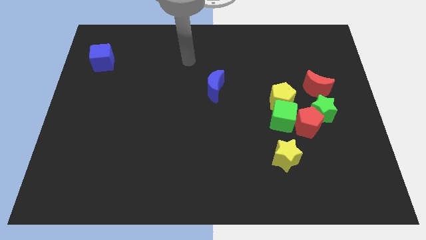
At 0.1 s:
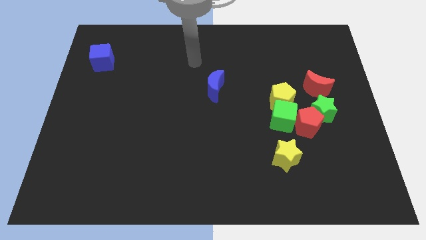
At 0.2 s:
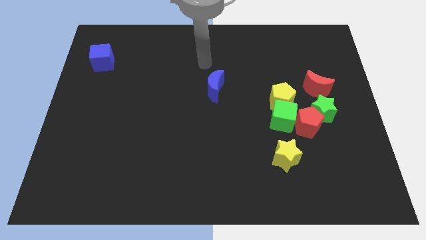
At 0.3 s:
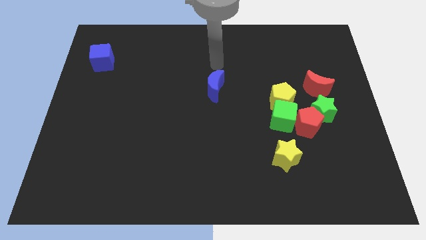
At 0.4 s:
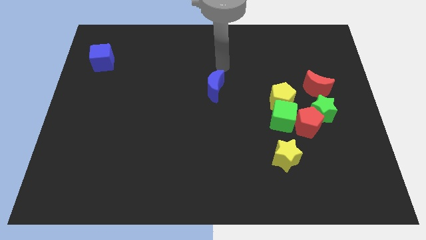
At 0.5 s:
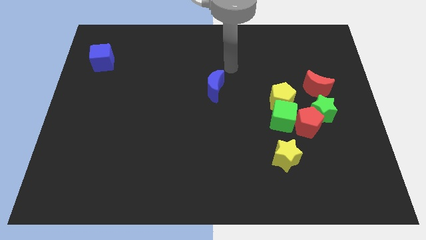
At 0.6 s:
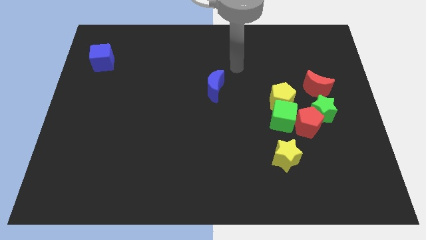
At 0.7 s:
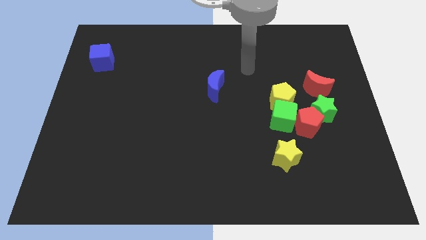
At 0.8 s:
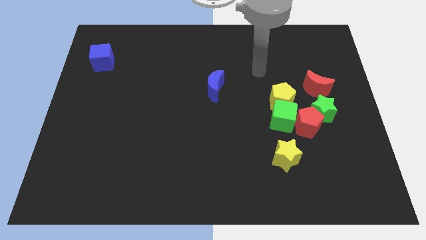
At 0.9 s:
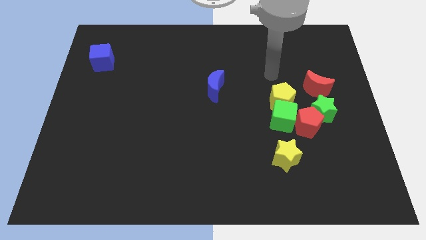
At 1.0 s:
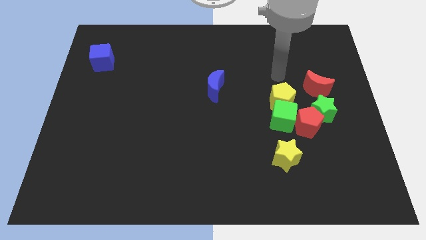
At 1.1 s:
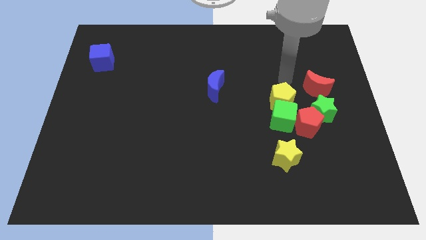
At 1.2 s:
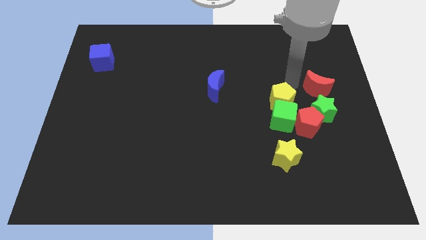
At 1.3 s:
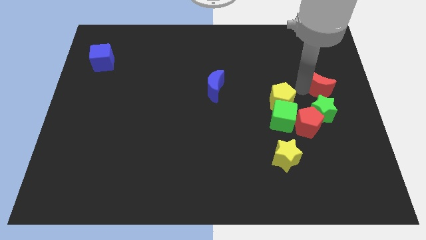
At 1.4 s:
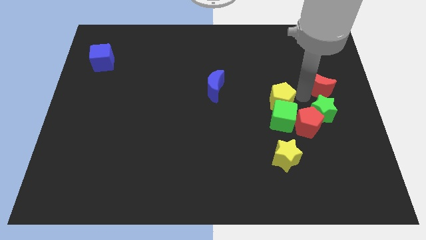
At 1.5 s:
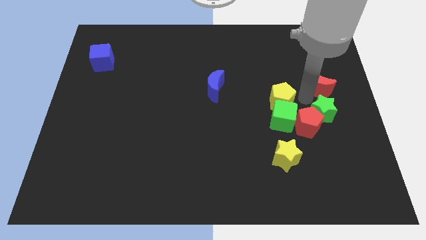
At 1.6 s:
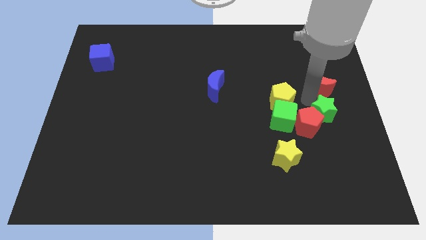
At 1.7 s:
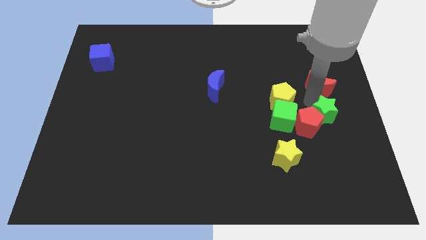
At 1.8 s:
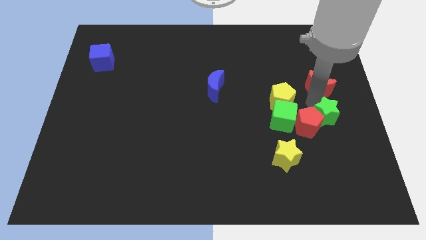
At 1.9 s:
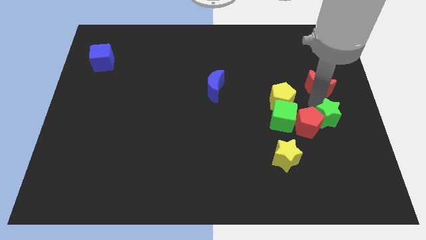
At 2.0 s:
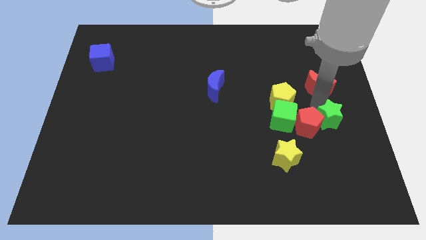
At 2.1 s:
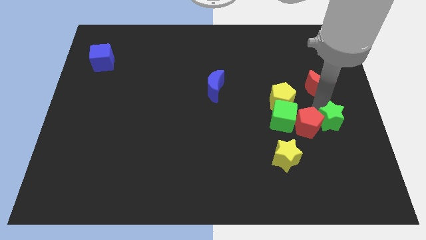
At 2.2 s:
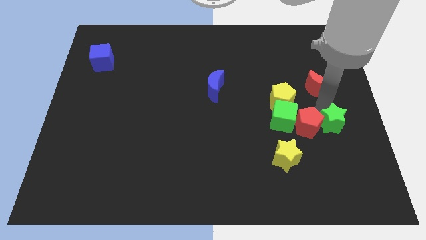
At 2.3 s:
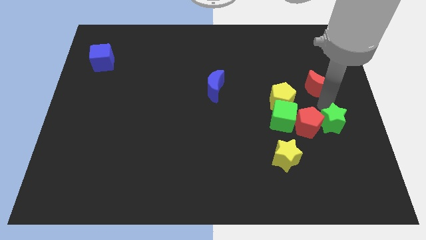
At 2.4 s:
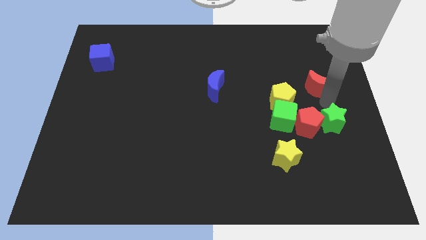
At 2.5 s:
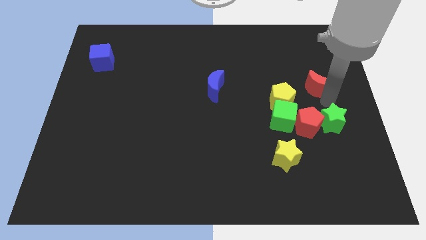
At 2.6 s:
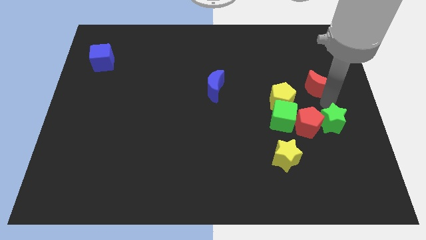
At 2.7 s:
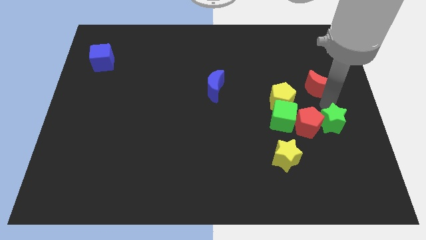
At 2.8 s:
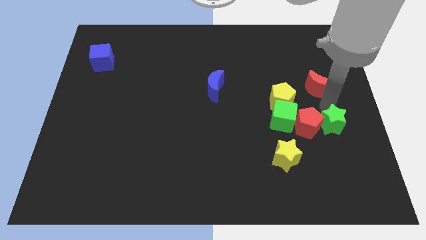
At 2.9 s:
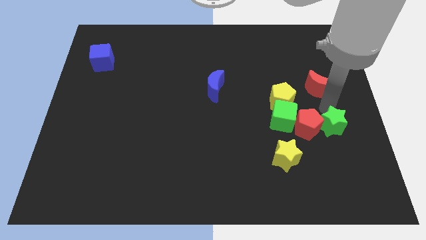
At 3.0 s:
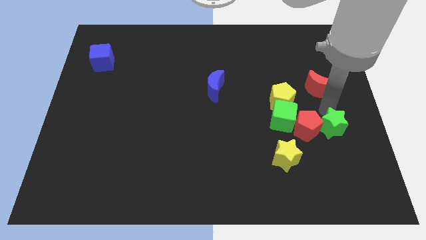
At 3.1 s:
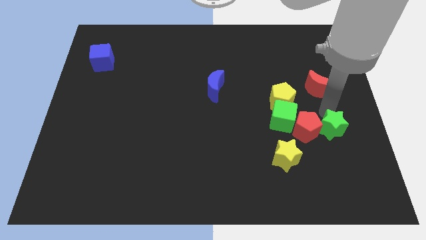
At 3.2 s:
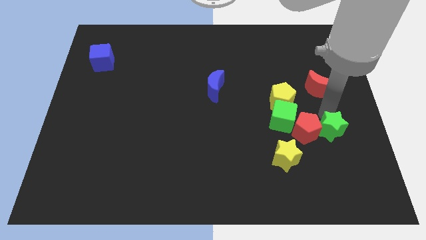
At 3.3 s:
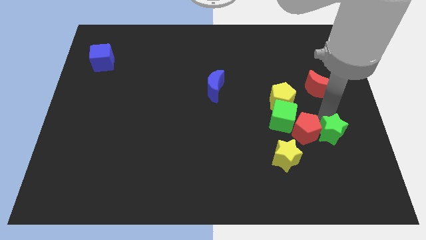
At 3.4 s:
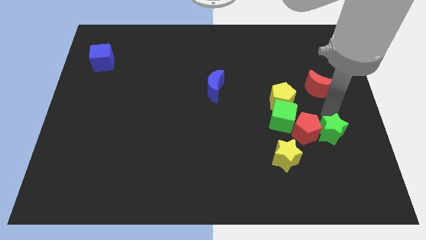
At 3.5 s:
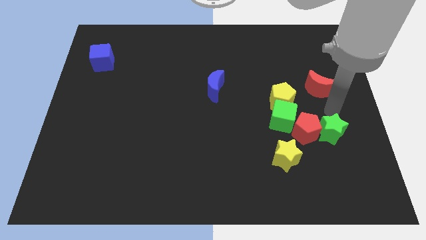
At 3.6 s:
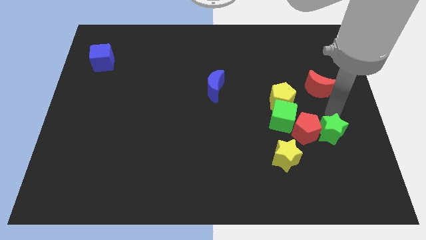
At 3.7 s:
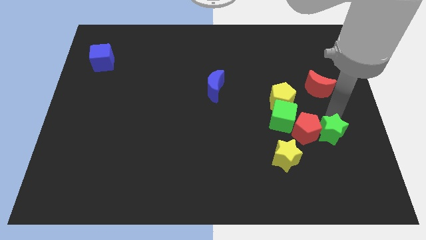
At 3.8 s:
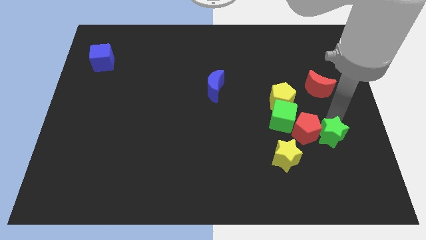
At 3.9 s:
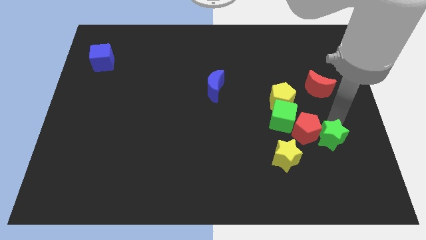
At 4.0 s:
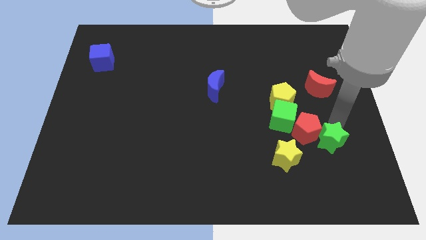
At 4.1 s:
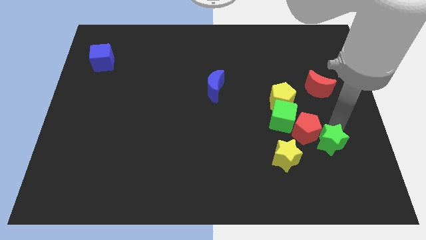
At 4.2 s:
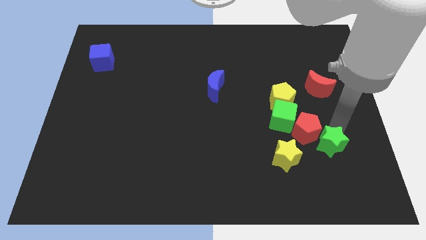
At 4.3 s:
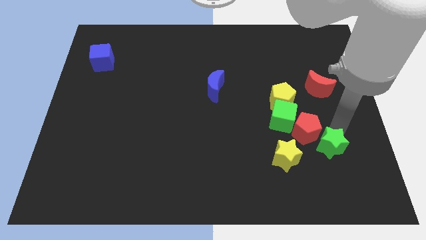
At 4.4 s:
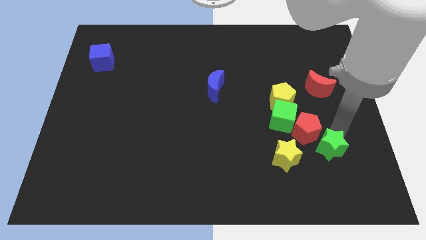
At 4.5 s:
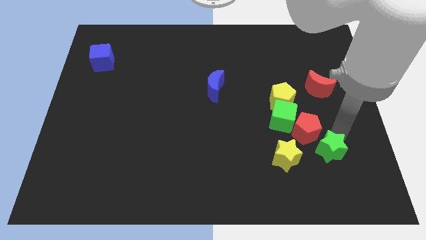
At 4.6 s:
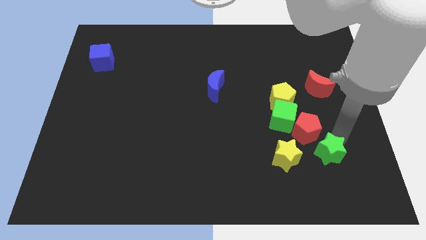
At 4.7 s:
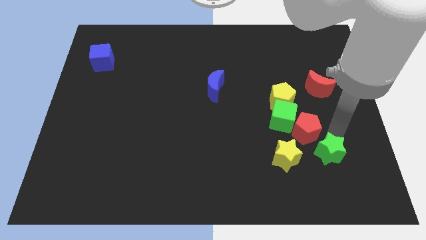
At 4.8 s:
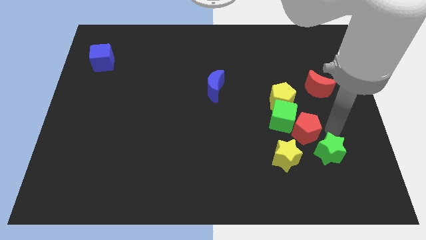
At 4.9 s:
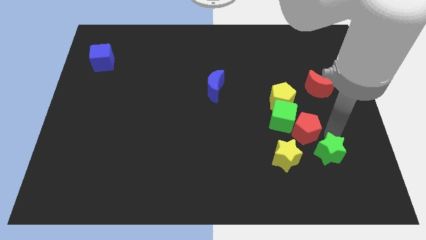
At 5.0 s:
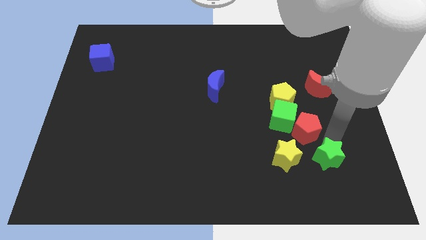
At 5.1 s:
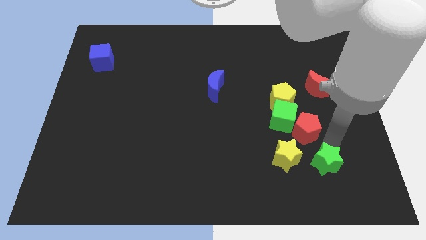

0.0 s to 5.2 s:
move the green star slightly down and to the left diagonally

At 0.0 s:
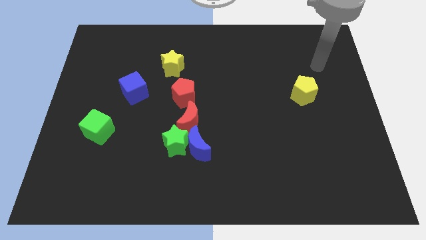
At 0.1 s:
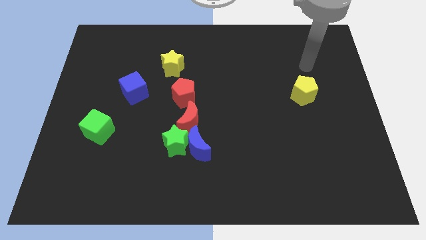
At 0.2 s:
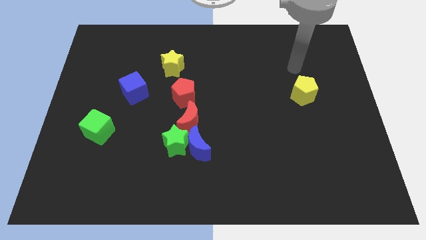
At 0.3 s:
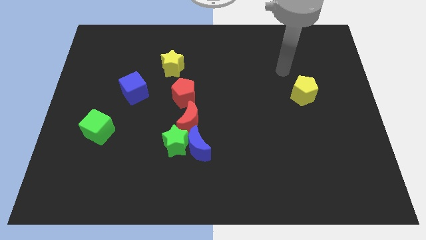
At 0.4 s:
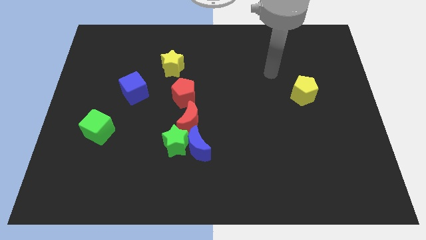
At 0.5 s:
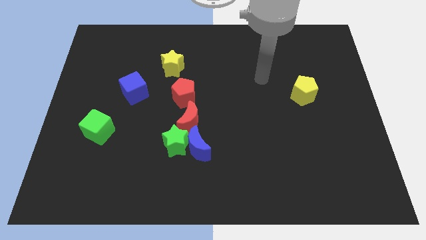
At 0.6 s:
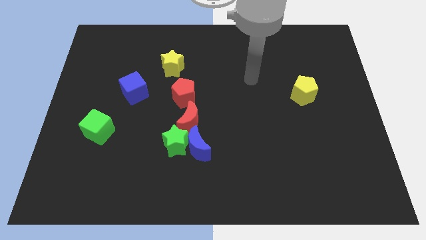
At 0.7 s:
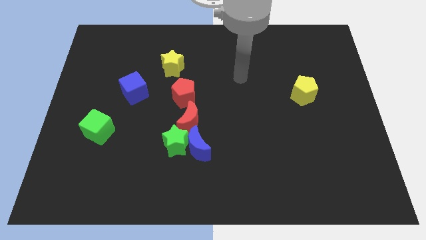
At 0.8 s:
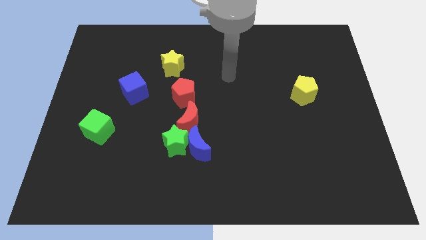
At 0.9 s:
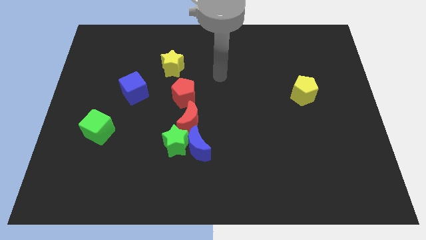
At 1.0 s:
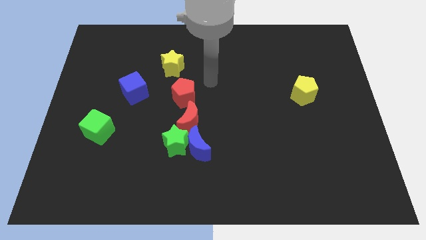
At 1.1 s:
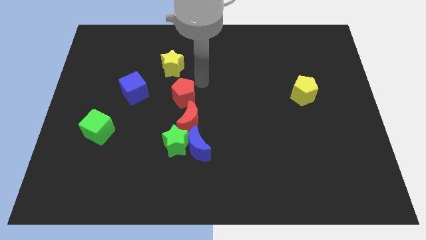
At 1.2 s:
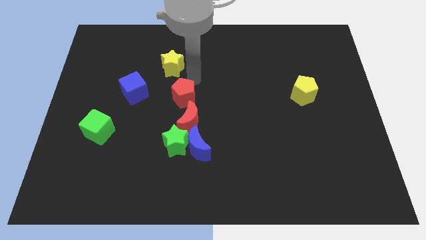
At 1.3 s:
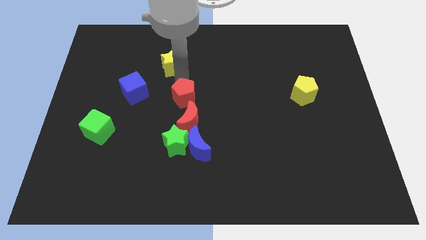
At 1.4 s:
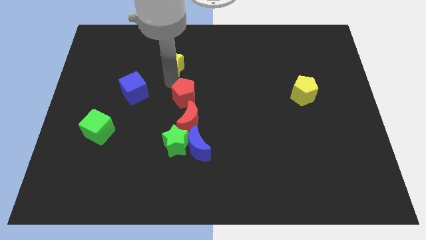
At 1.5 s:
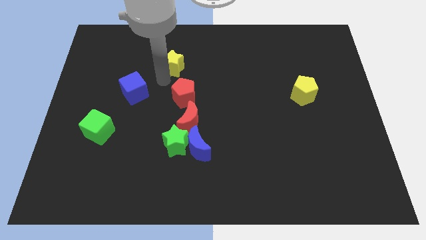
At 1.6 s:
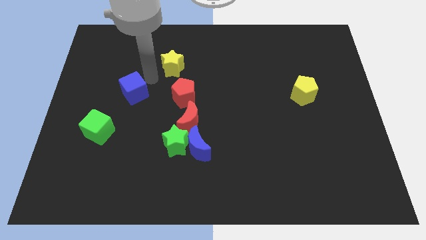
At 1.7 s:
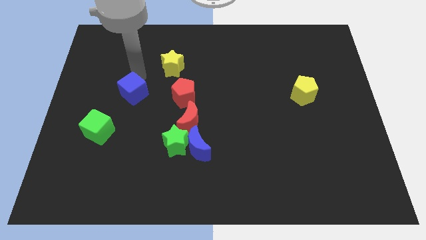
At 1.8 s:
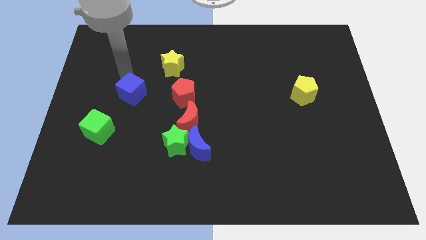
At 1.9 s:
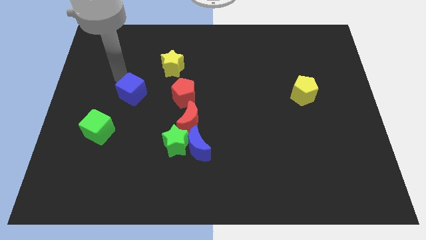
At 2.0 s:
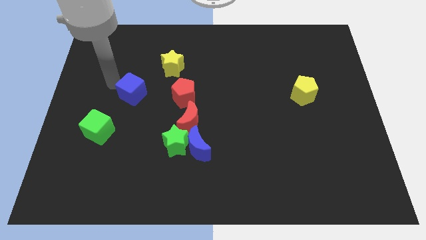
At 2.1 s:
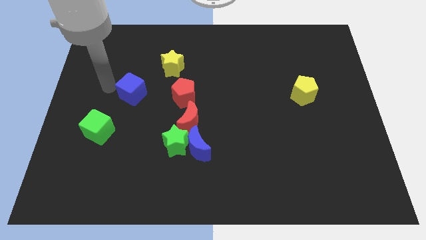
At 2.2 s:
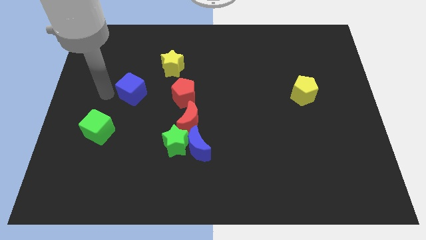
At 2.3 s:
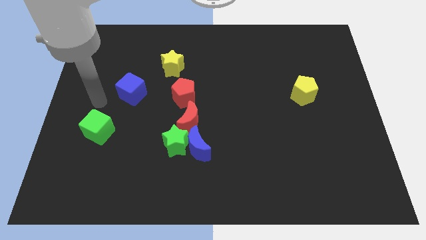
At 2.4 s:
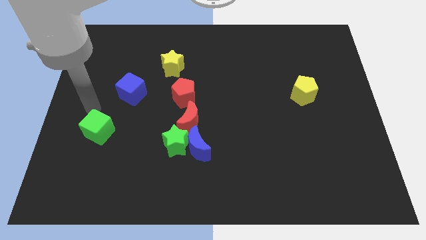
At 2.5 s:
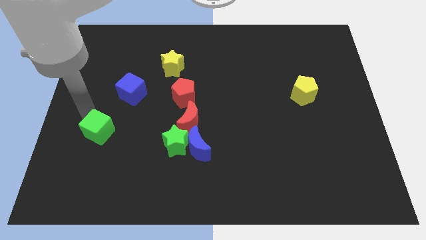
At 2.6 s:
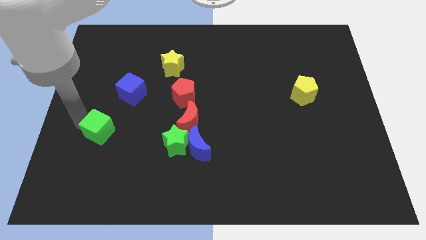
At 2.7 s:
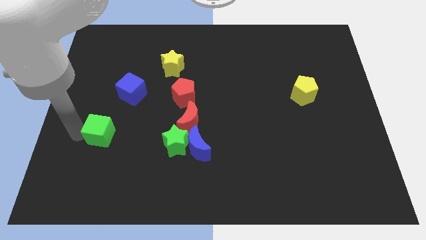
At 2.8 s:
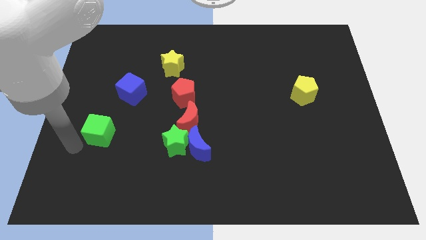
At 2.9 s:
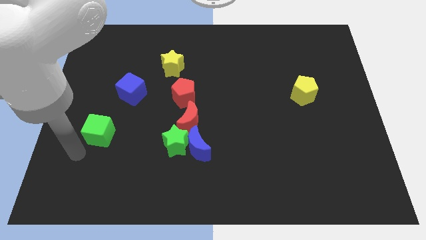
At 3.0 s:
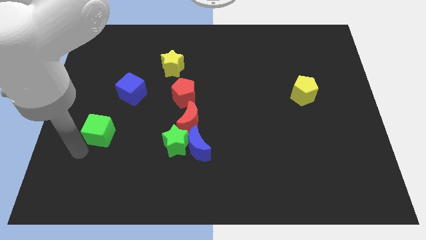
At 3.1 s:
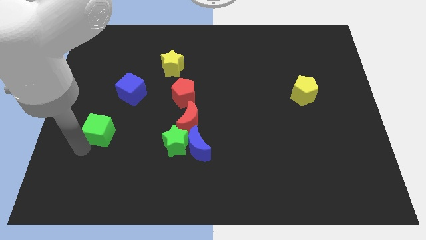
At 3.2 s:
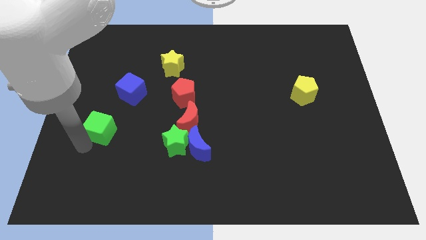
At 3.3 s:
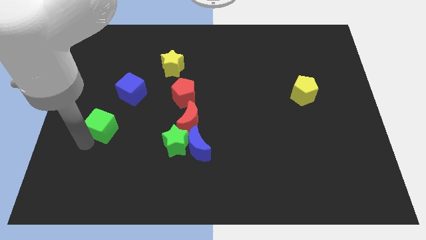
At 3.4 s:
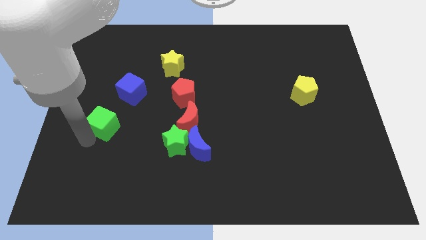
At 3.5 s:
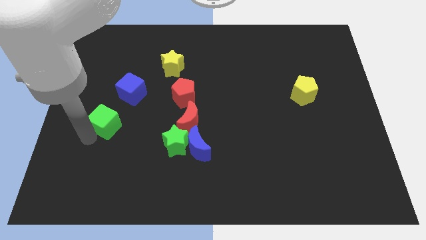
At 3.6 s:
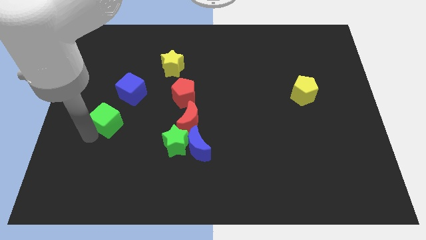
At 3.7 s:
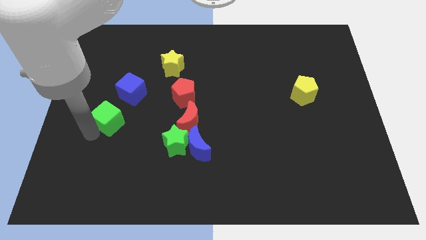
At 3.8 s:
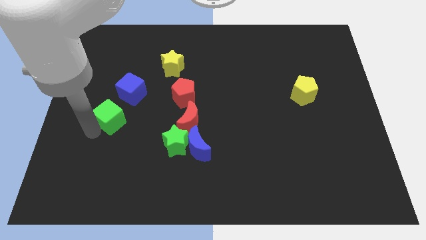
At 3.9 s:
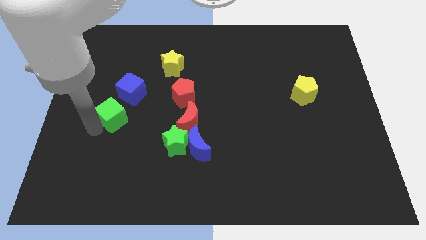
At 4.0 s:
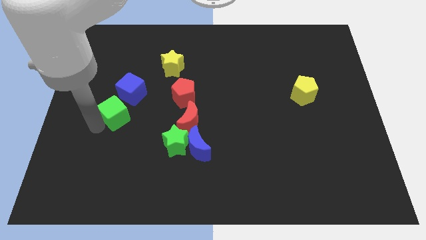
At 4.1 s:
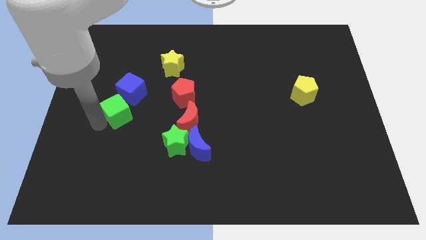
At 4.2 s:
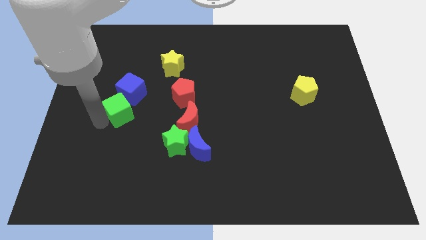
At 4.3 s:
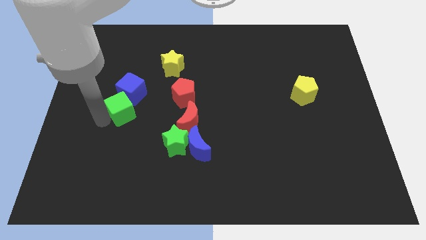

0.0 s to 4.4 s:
slightly push the green cube up and right diagonally
